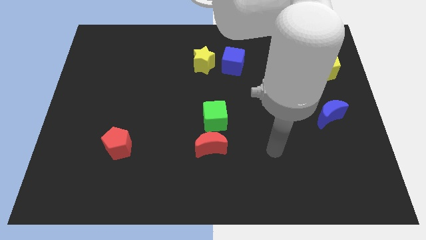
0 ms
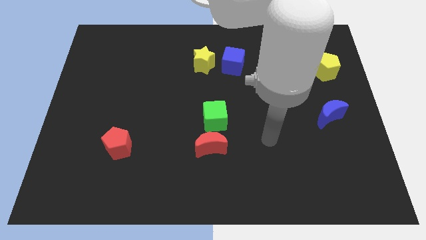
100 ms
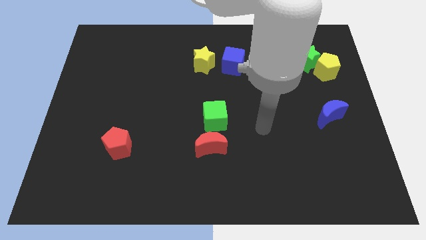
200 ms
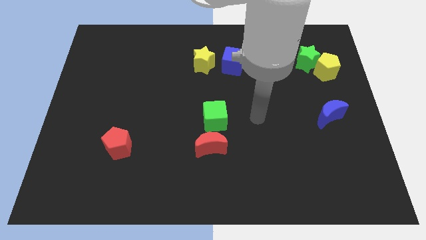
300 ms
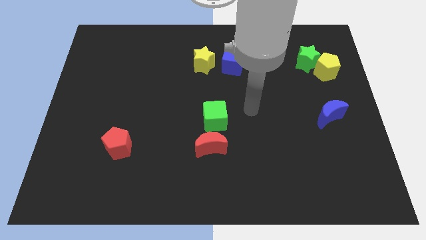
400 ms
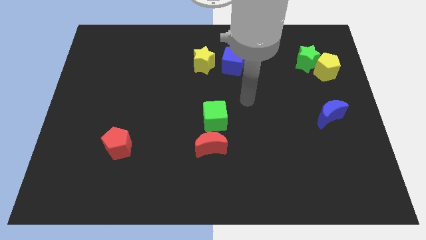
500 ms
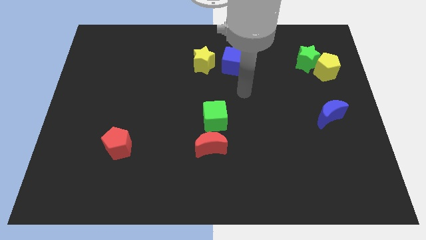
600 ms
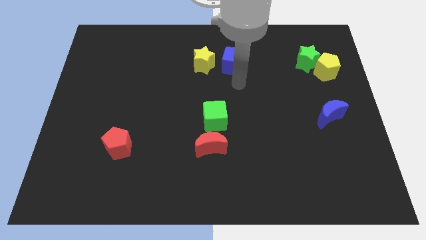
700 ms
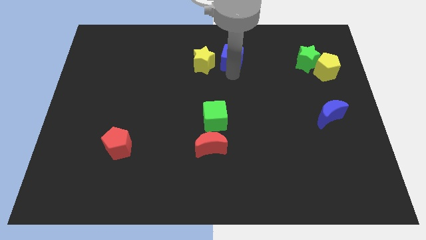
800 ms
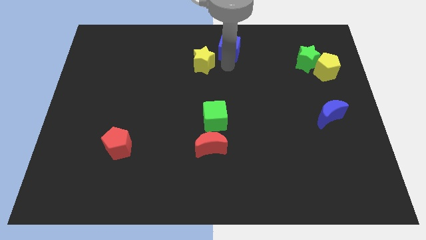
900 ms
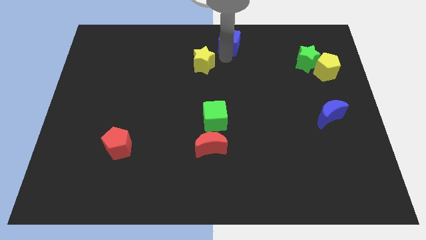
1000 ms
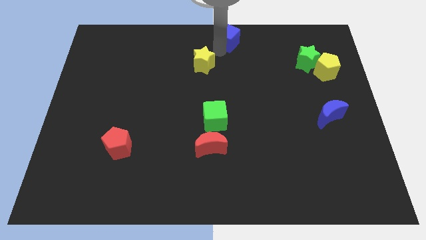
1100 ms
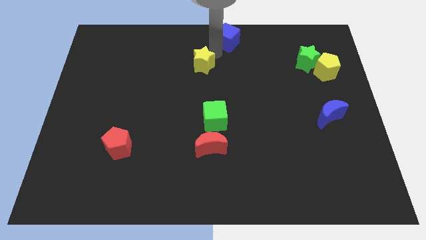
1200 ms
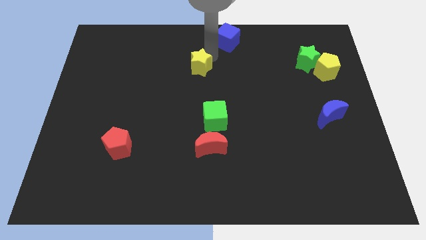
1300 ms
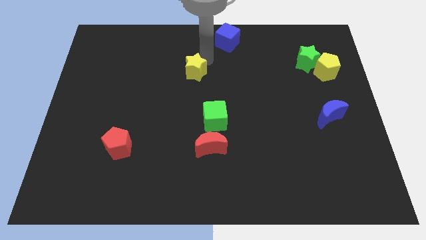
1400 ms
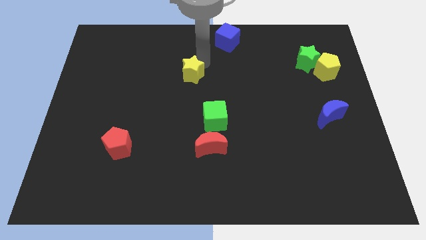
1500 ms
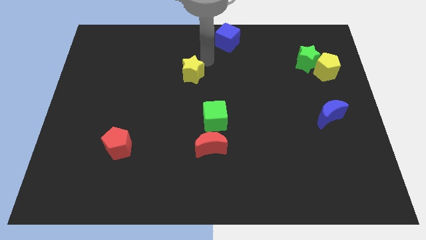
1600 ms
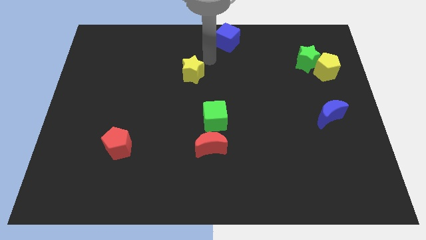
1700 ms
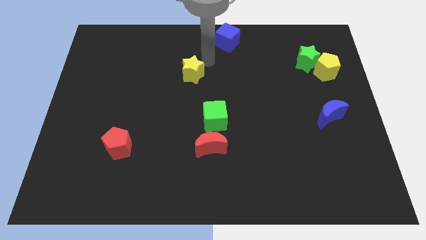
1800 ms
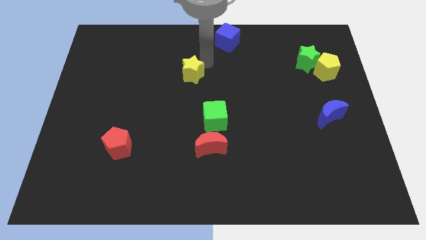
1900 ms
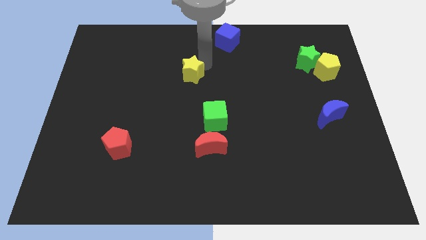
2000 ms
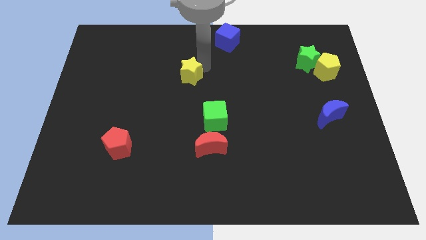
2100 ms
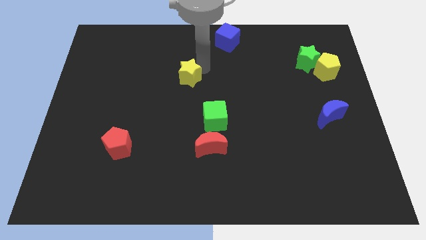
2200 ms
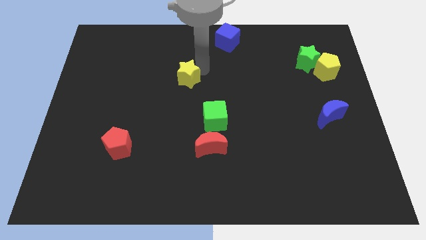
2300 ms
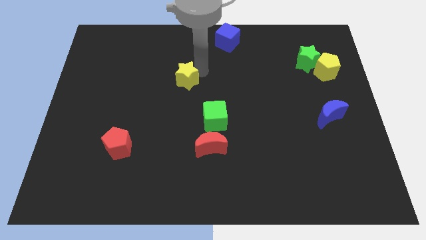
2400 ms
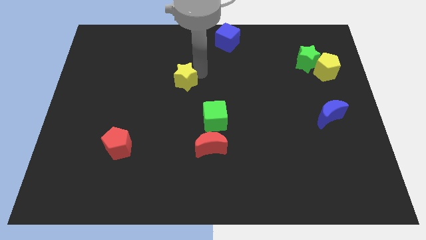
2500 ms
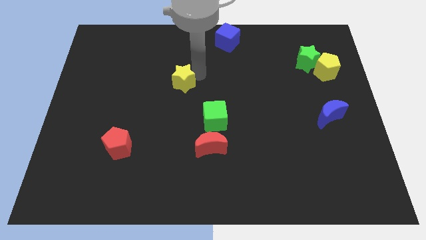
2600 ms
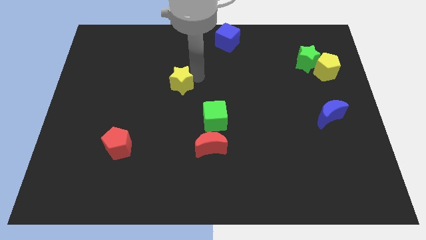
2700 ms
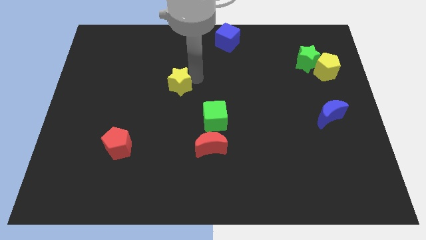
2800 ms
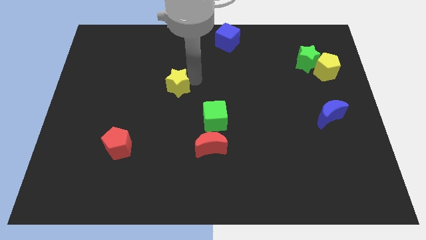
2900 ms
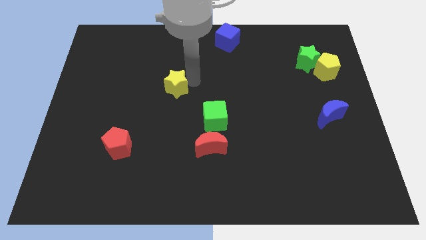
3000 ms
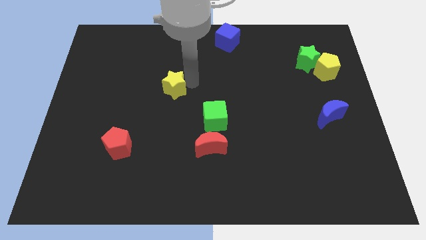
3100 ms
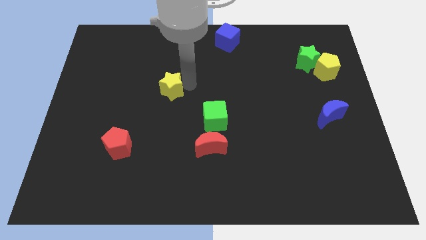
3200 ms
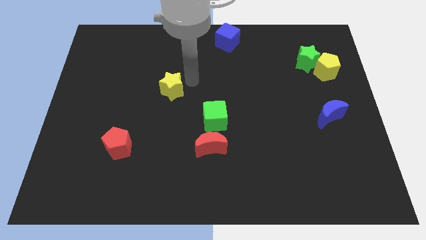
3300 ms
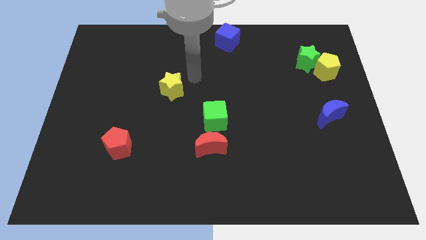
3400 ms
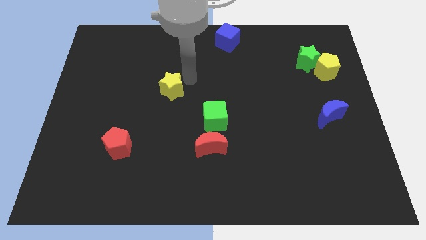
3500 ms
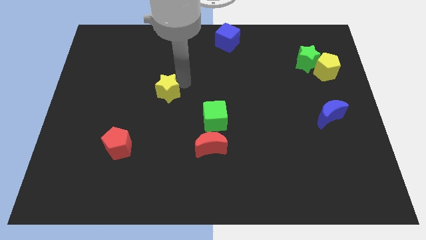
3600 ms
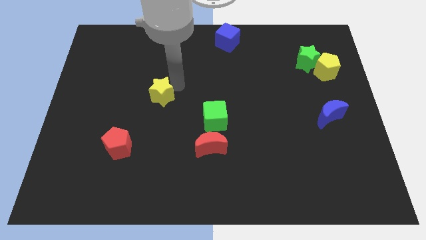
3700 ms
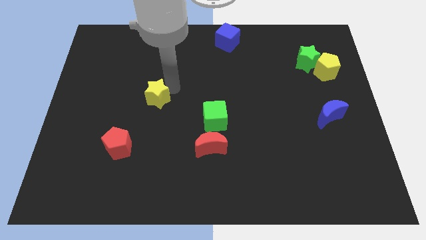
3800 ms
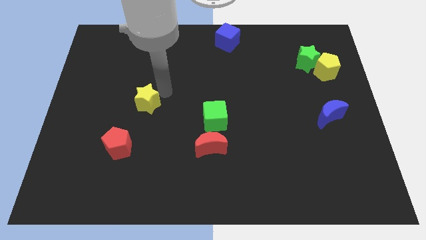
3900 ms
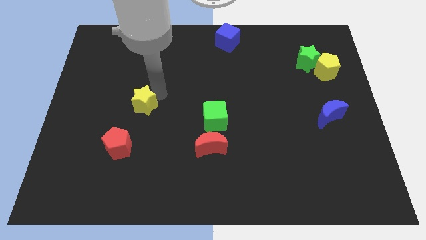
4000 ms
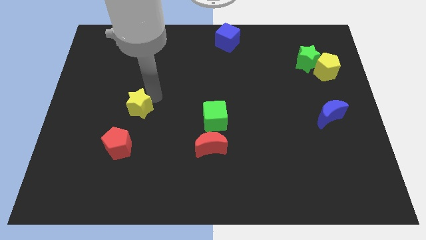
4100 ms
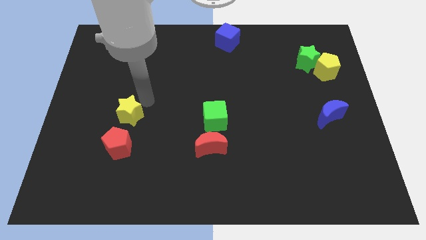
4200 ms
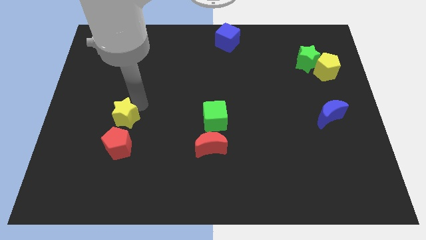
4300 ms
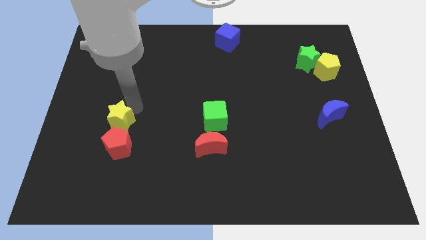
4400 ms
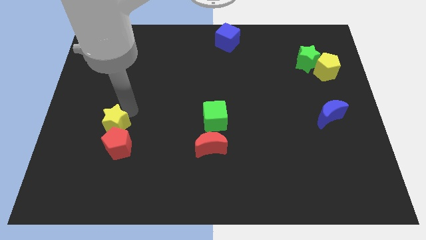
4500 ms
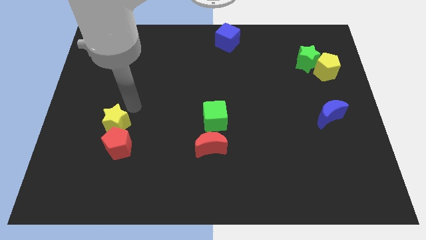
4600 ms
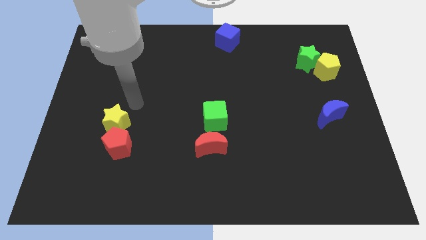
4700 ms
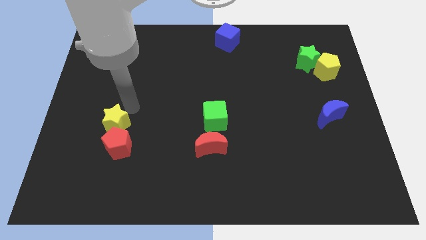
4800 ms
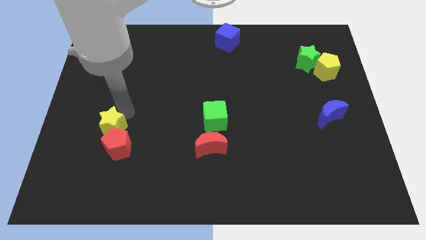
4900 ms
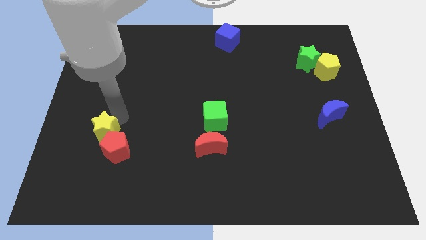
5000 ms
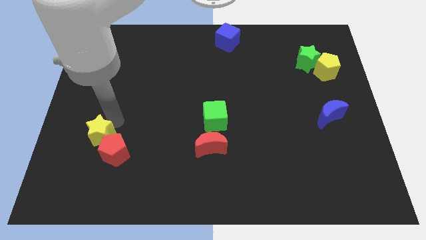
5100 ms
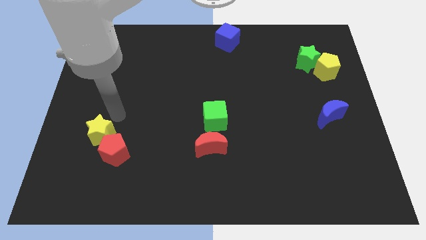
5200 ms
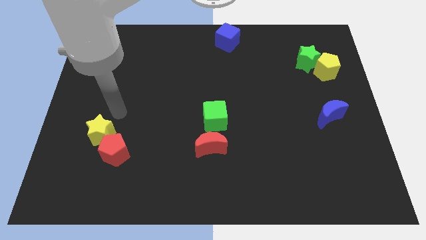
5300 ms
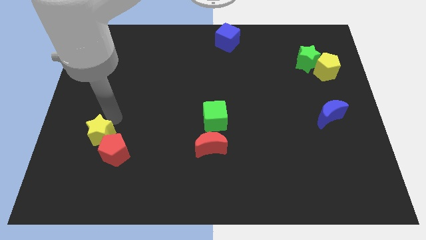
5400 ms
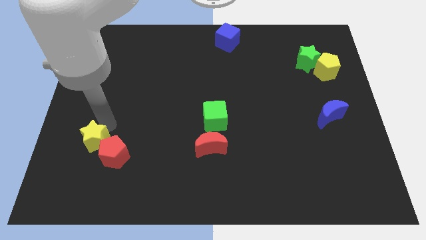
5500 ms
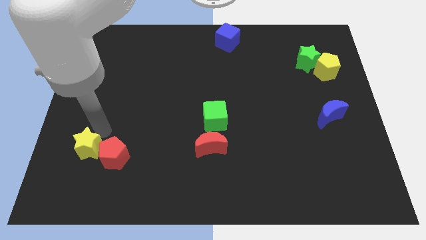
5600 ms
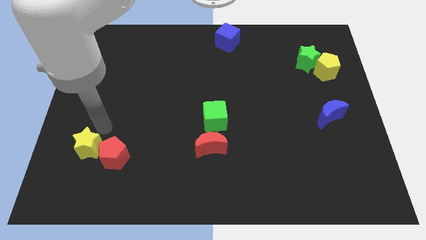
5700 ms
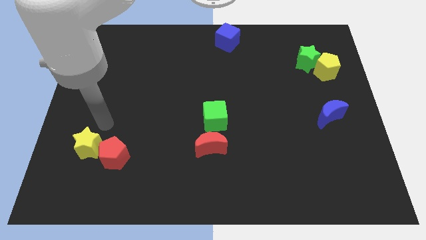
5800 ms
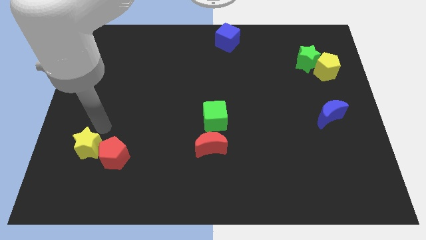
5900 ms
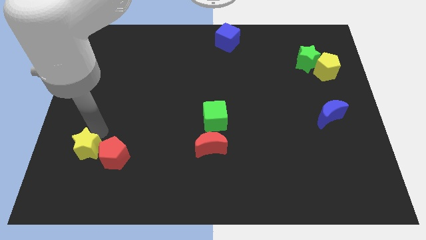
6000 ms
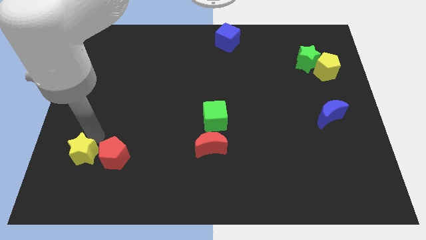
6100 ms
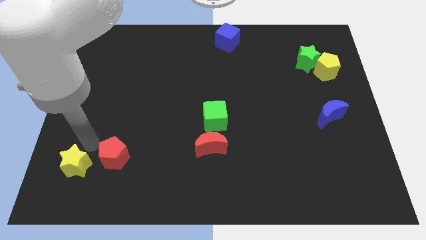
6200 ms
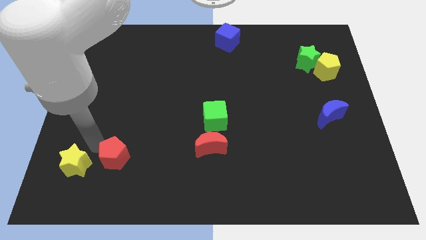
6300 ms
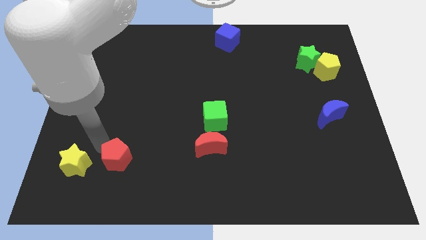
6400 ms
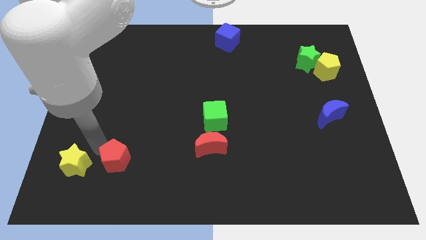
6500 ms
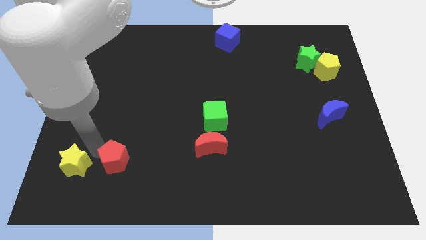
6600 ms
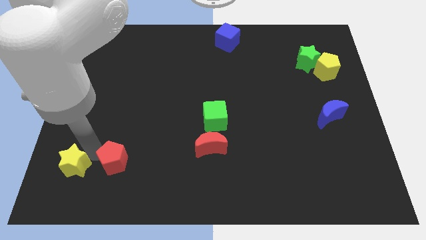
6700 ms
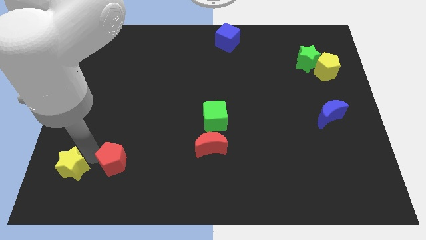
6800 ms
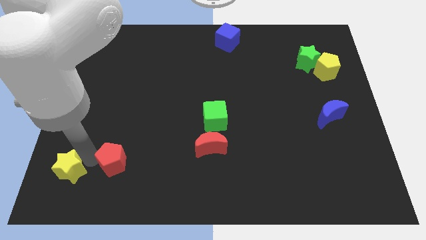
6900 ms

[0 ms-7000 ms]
put the yellow star to the lower left corner
